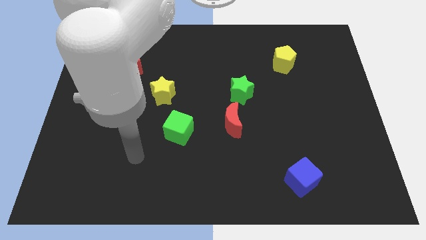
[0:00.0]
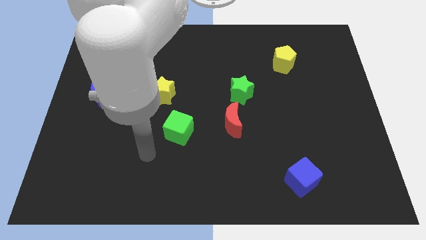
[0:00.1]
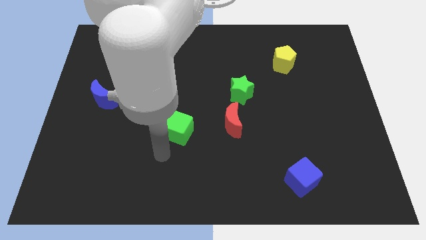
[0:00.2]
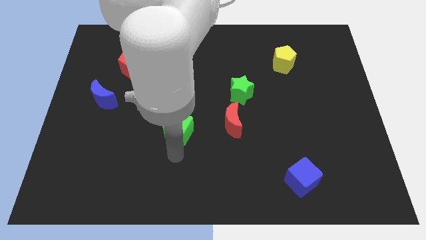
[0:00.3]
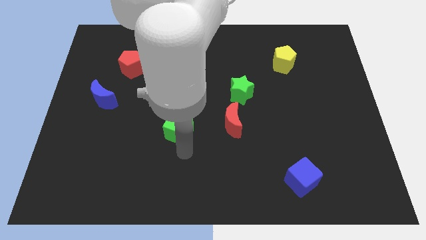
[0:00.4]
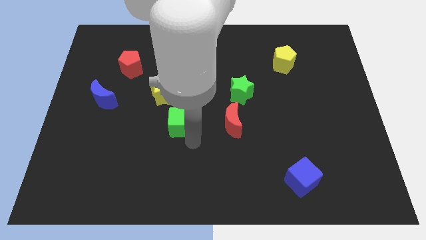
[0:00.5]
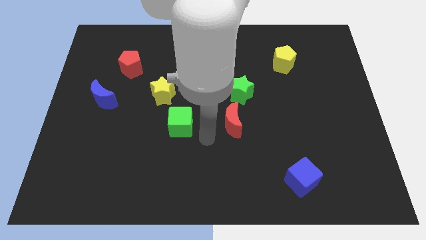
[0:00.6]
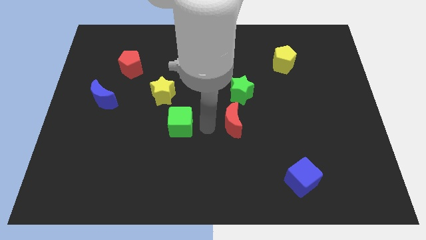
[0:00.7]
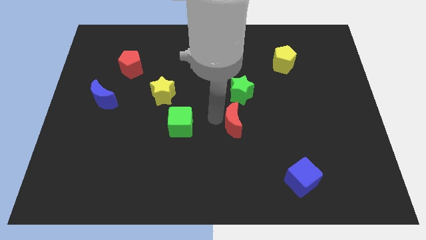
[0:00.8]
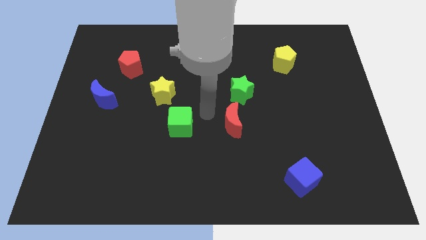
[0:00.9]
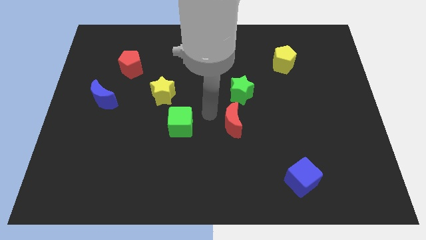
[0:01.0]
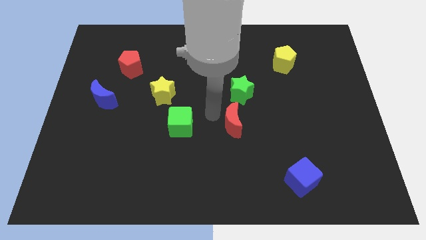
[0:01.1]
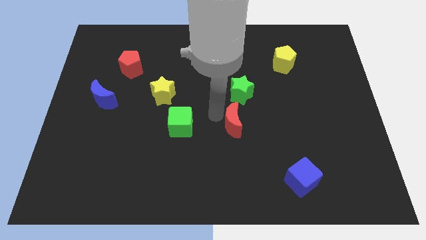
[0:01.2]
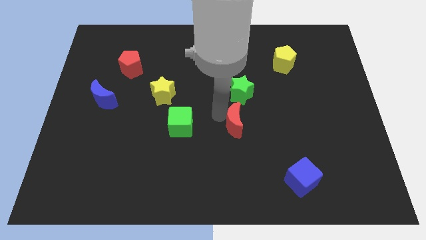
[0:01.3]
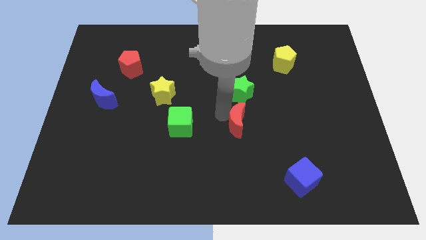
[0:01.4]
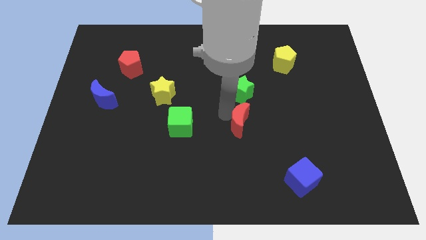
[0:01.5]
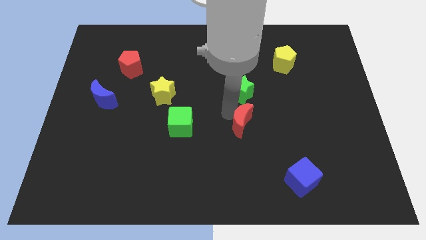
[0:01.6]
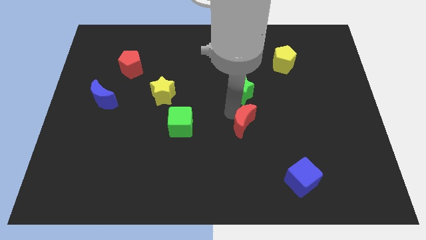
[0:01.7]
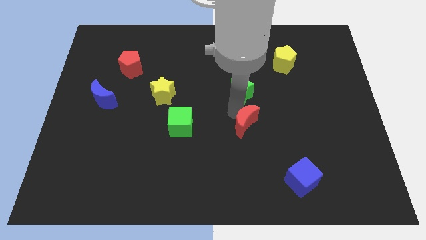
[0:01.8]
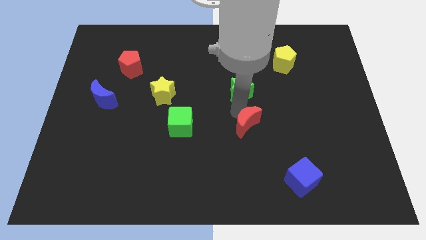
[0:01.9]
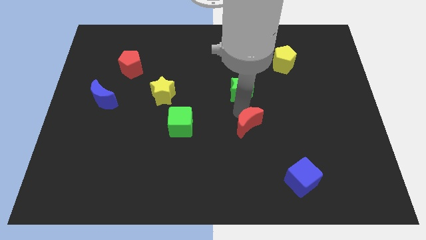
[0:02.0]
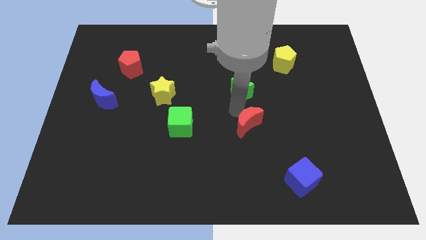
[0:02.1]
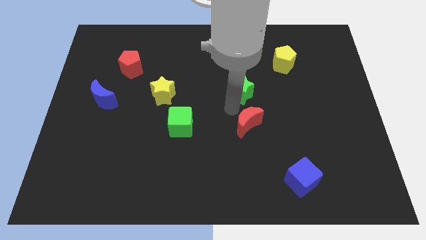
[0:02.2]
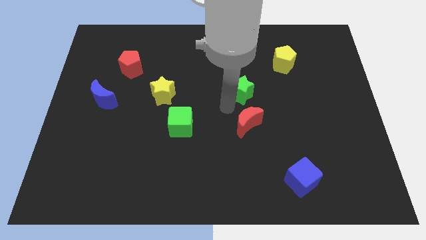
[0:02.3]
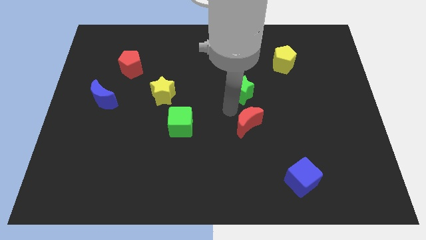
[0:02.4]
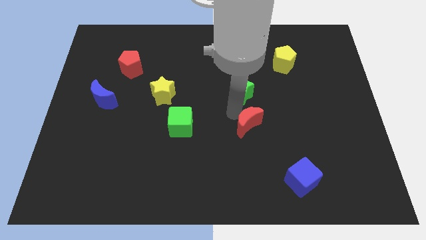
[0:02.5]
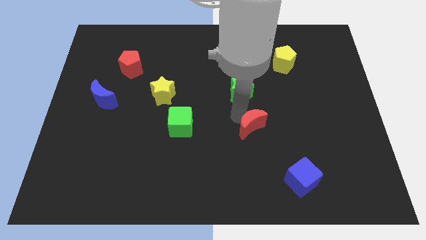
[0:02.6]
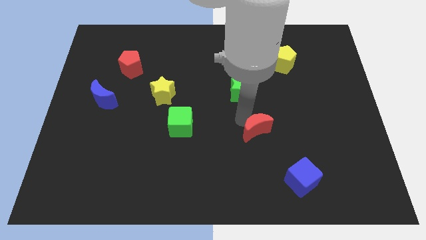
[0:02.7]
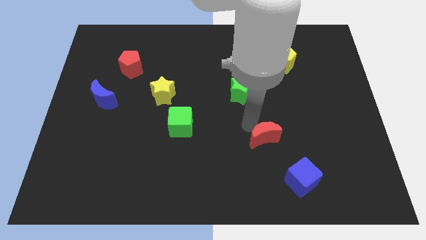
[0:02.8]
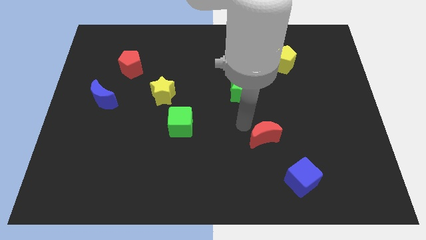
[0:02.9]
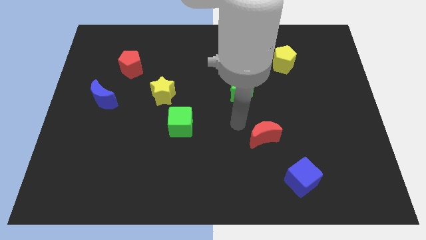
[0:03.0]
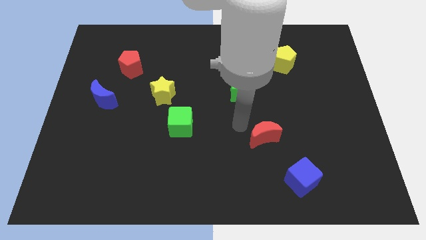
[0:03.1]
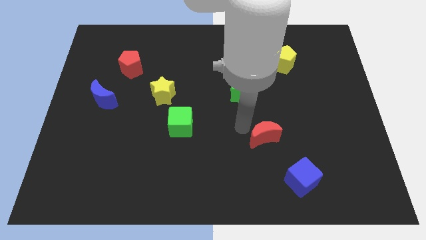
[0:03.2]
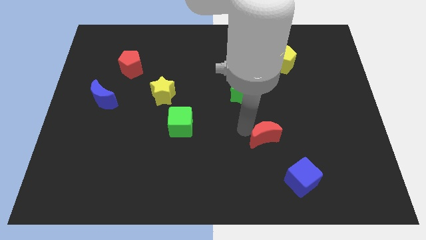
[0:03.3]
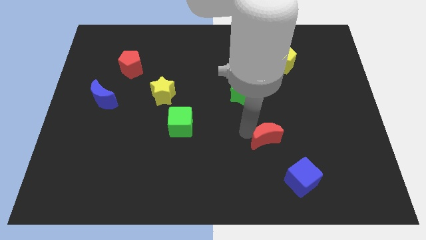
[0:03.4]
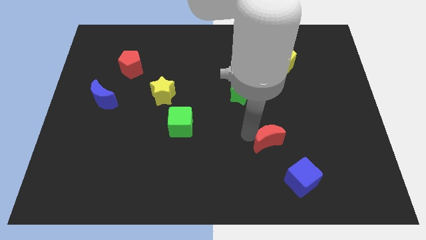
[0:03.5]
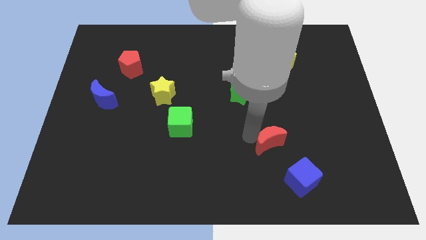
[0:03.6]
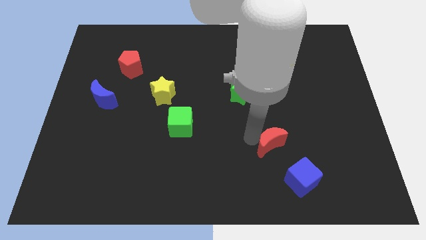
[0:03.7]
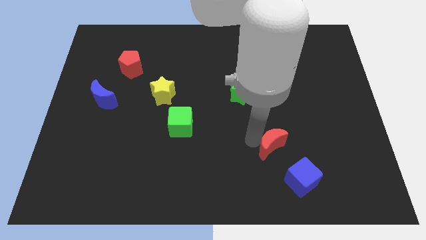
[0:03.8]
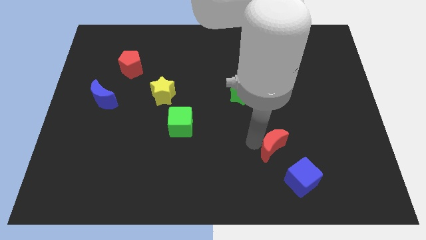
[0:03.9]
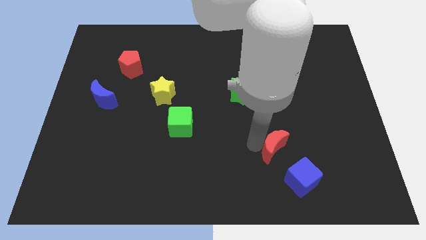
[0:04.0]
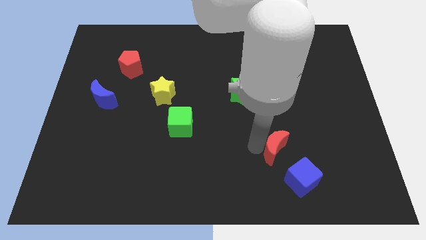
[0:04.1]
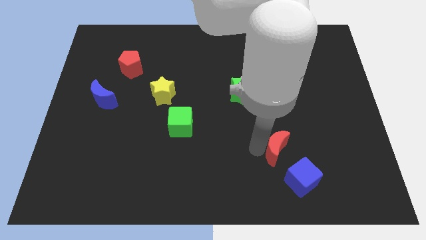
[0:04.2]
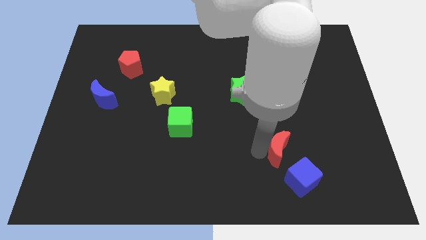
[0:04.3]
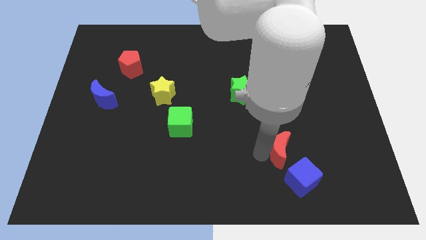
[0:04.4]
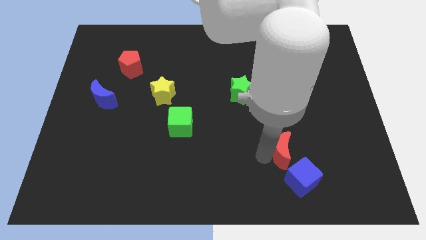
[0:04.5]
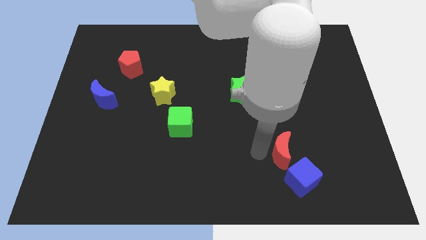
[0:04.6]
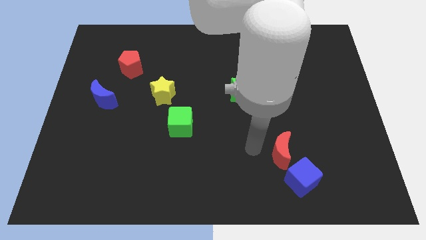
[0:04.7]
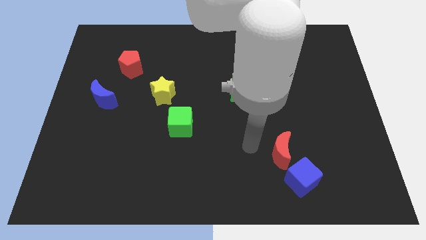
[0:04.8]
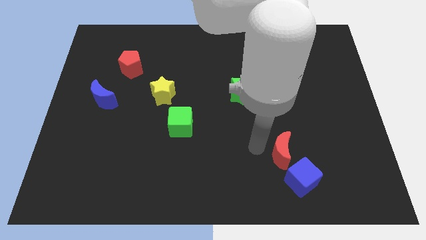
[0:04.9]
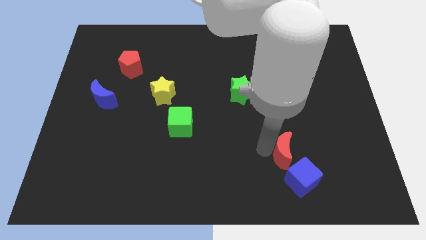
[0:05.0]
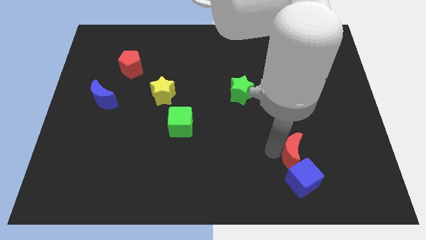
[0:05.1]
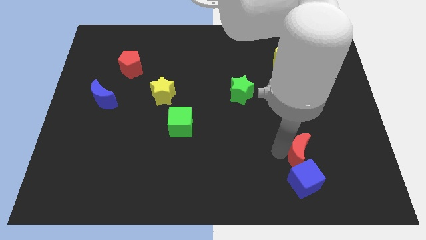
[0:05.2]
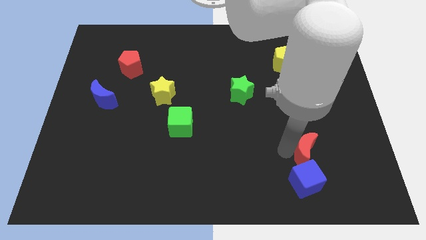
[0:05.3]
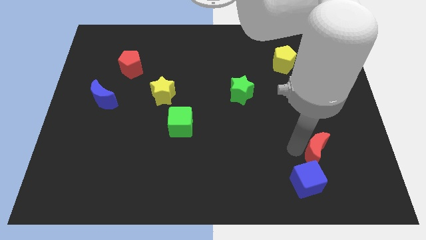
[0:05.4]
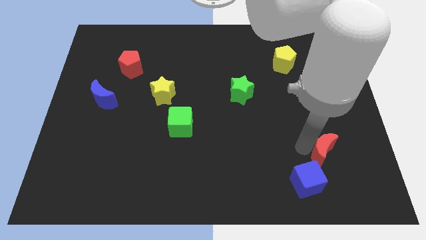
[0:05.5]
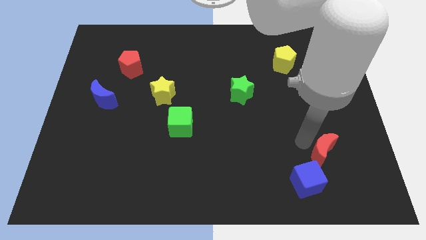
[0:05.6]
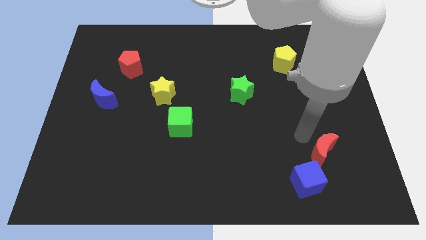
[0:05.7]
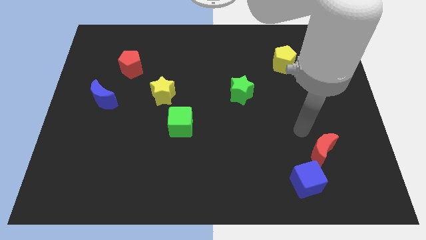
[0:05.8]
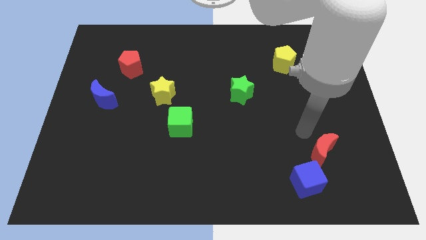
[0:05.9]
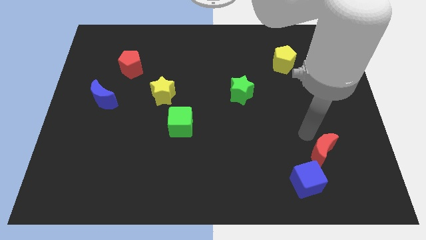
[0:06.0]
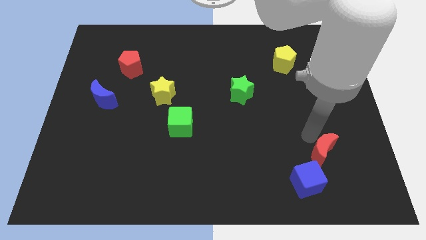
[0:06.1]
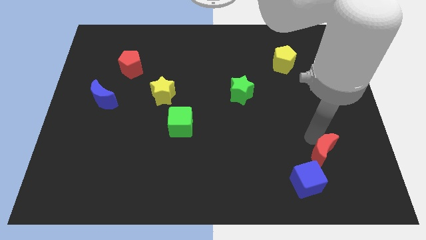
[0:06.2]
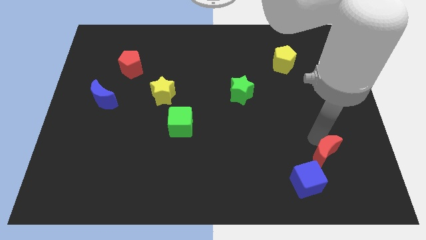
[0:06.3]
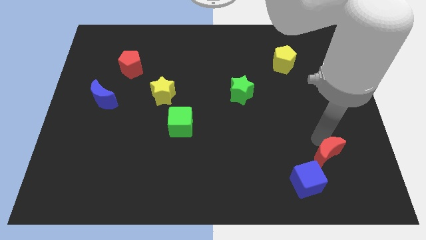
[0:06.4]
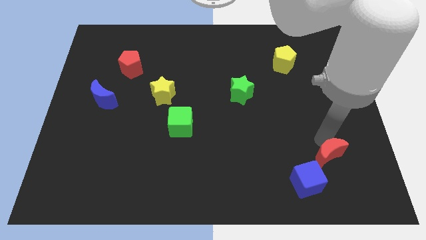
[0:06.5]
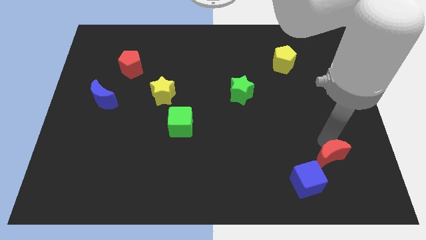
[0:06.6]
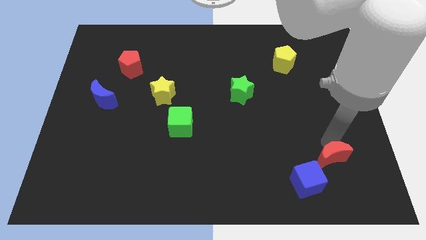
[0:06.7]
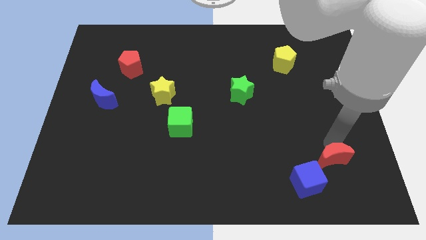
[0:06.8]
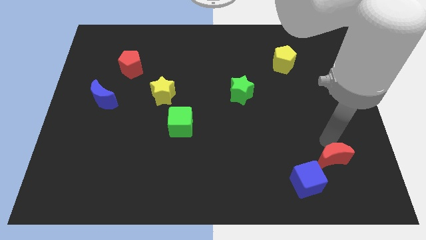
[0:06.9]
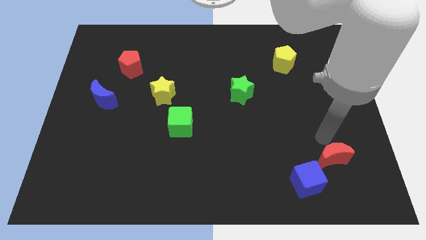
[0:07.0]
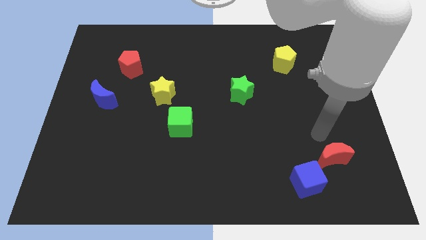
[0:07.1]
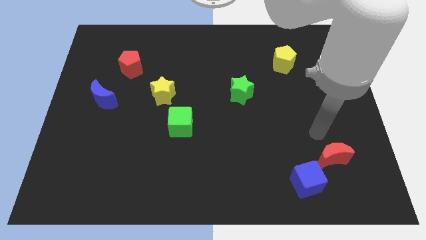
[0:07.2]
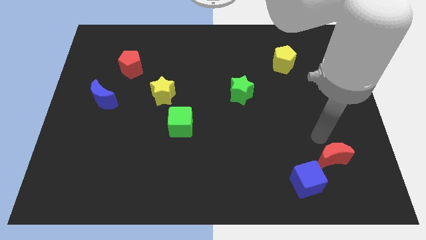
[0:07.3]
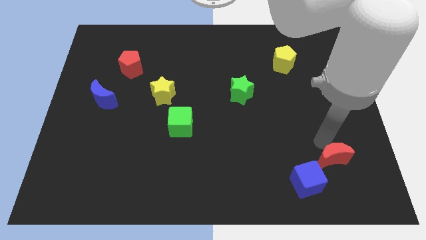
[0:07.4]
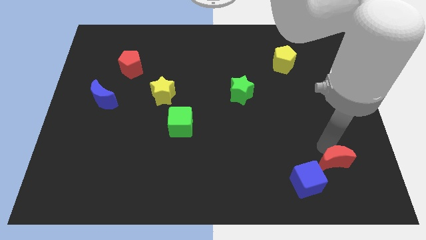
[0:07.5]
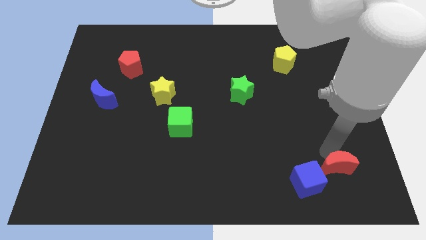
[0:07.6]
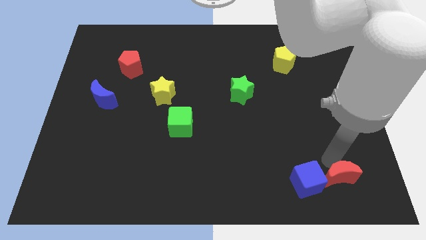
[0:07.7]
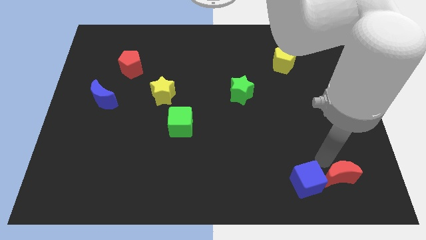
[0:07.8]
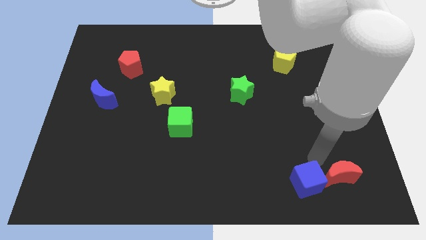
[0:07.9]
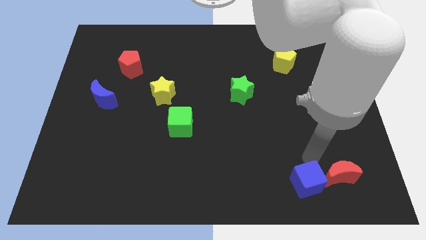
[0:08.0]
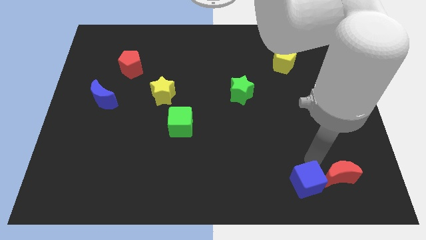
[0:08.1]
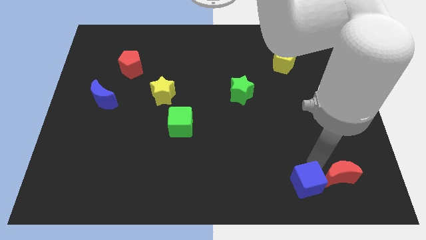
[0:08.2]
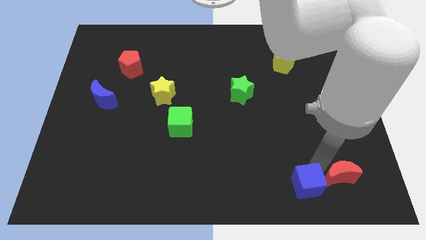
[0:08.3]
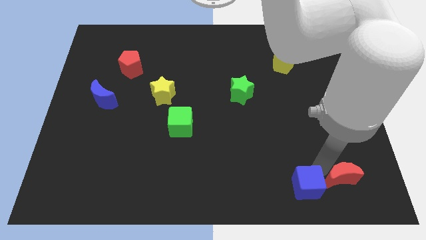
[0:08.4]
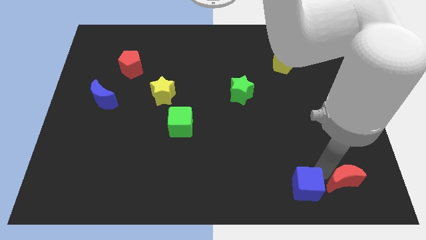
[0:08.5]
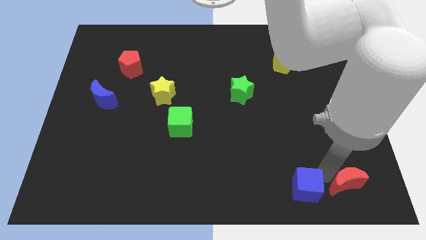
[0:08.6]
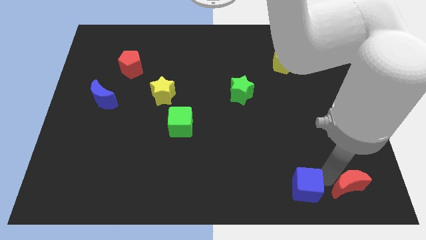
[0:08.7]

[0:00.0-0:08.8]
move the red moon to the bottom right corner
